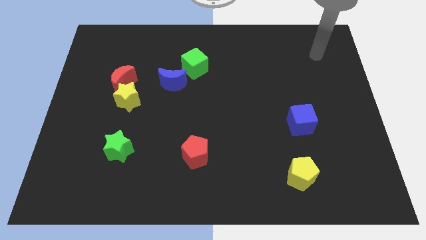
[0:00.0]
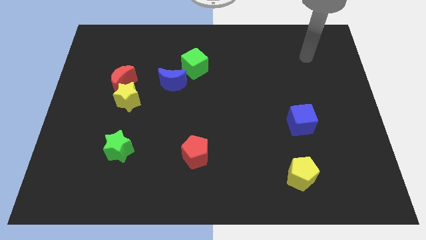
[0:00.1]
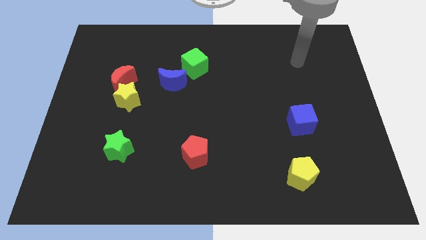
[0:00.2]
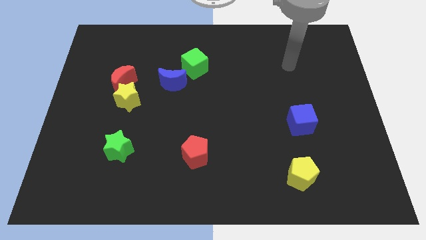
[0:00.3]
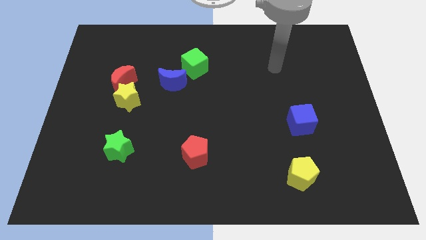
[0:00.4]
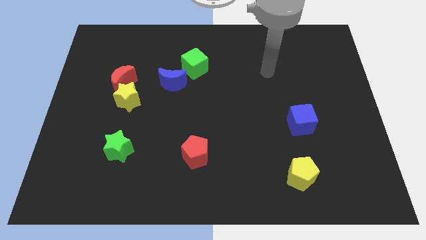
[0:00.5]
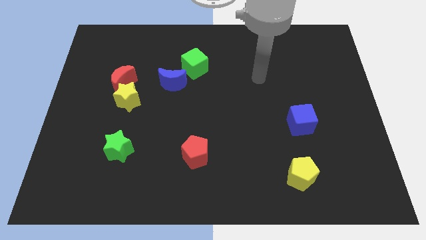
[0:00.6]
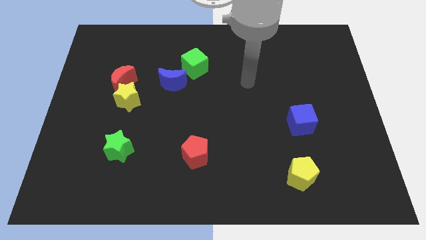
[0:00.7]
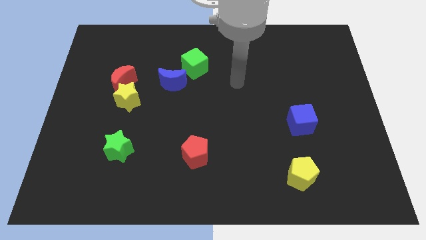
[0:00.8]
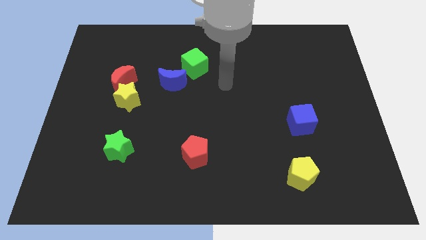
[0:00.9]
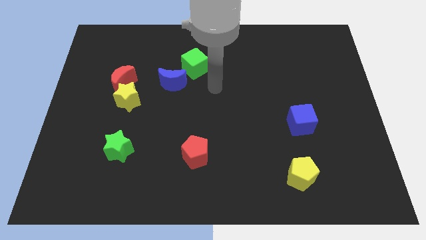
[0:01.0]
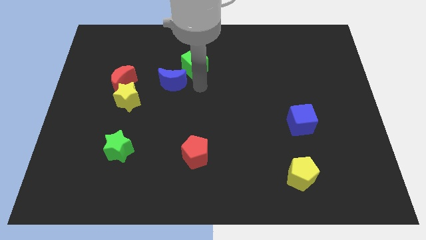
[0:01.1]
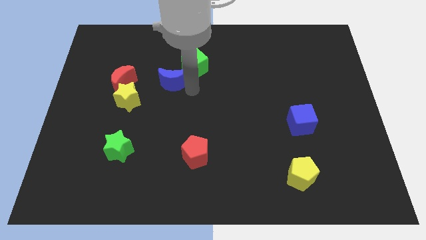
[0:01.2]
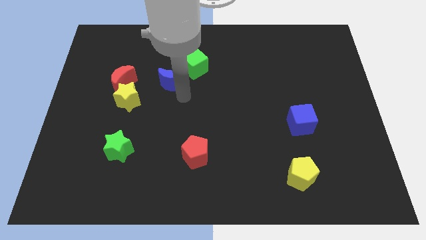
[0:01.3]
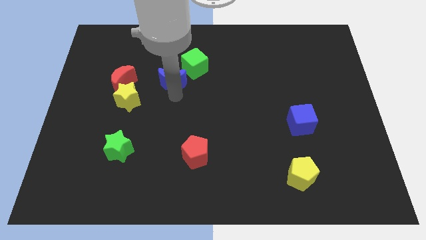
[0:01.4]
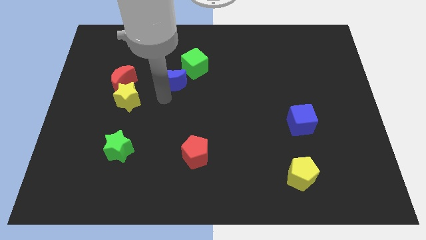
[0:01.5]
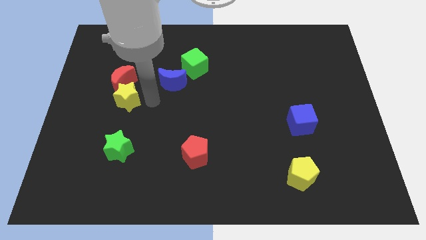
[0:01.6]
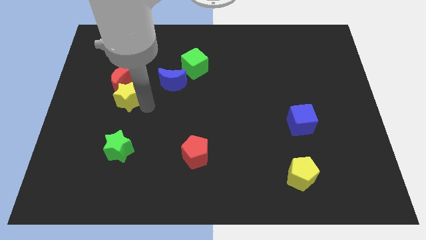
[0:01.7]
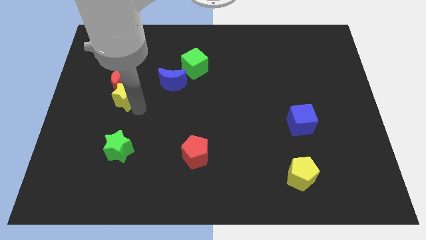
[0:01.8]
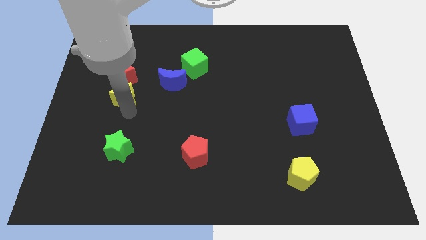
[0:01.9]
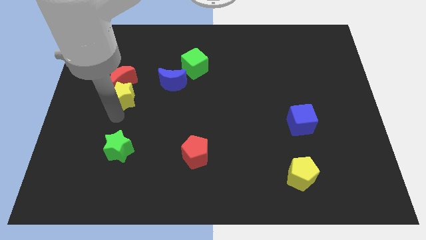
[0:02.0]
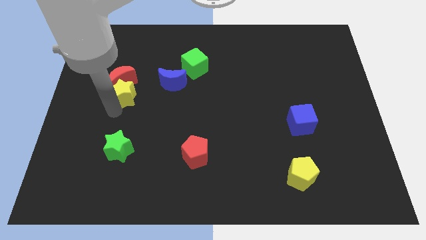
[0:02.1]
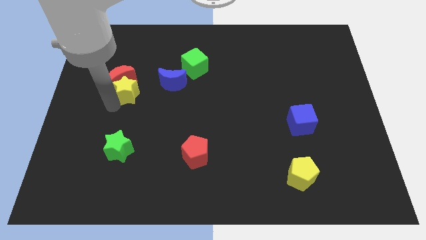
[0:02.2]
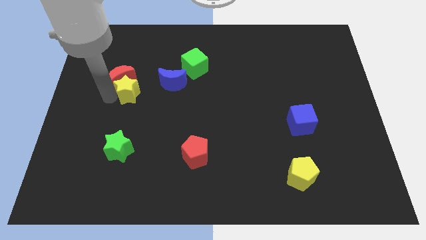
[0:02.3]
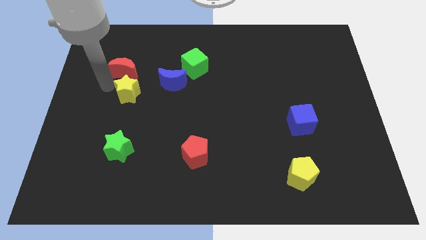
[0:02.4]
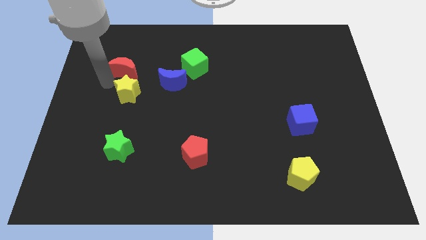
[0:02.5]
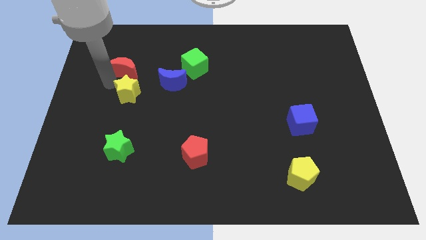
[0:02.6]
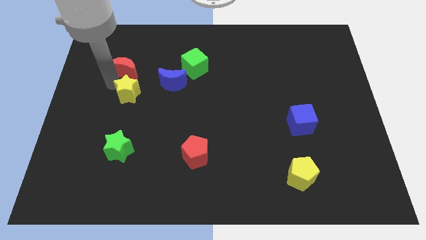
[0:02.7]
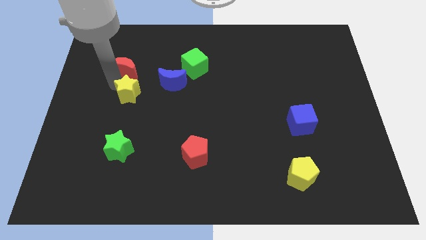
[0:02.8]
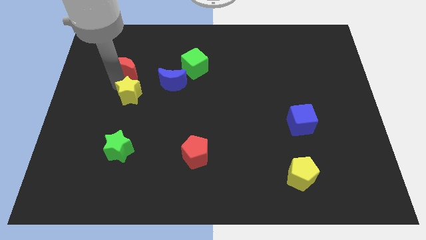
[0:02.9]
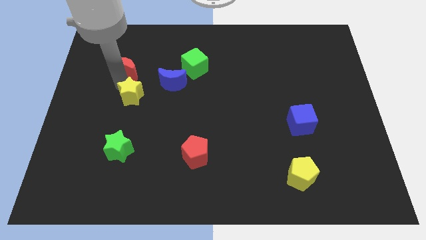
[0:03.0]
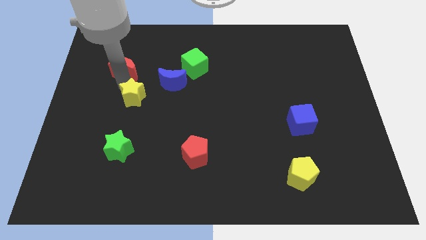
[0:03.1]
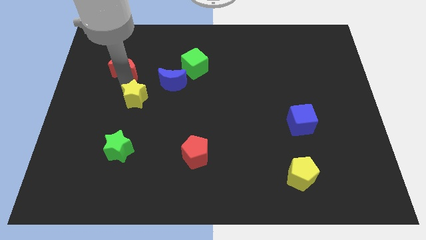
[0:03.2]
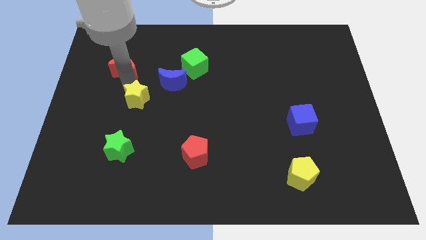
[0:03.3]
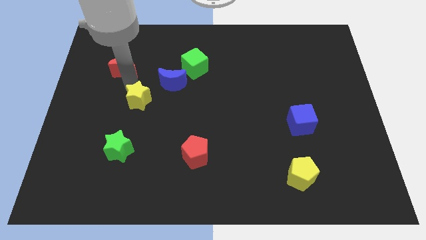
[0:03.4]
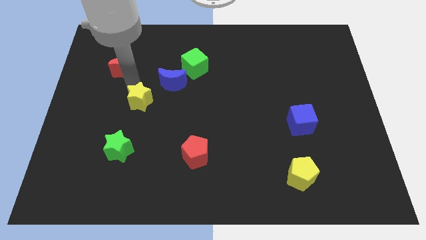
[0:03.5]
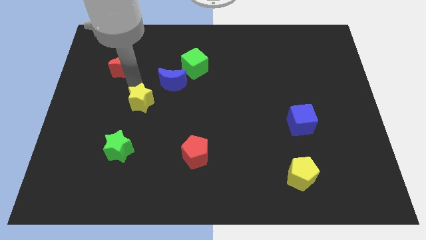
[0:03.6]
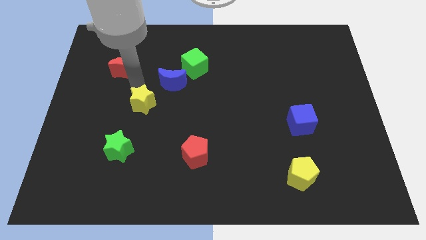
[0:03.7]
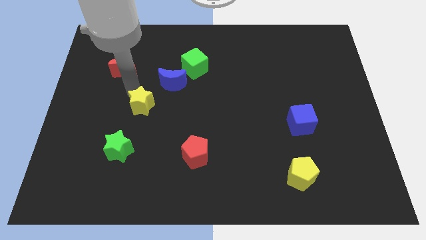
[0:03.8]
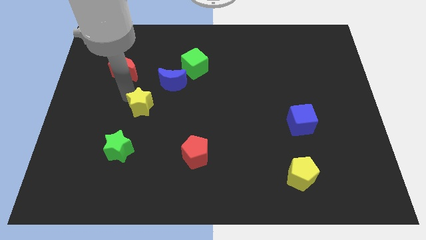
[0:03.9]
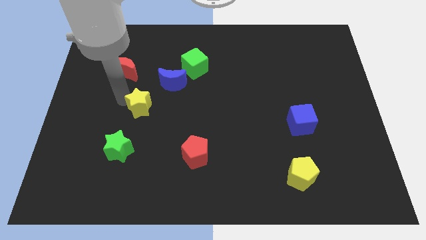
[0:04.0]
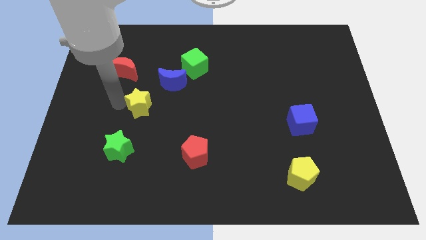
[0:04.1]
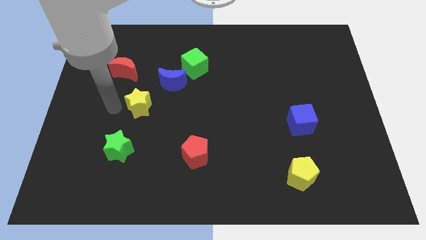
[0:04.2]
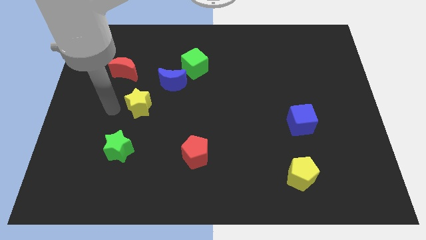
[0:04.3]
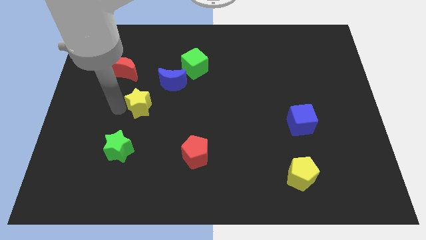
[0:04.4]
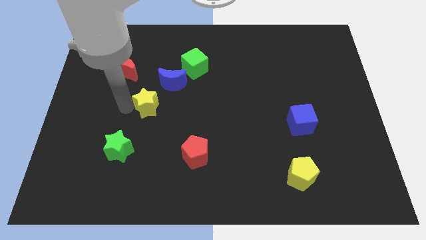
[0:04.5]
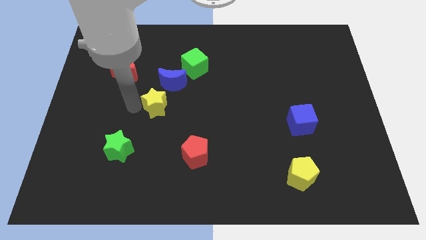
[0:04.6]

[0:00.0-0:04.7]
slightly push the yellow star to the right

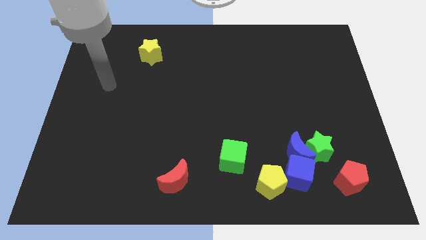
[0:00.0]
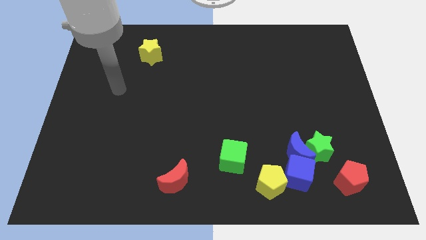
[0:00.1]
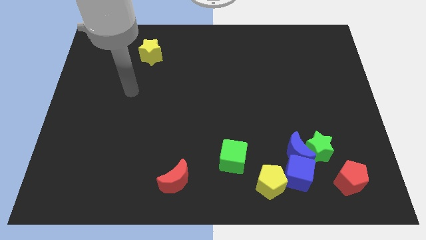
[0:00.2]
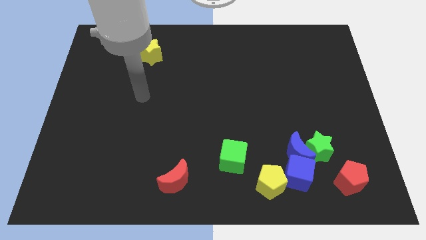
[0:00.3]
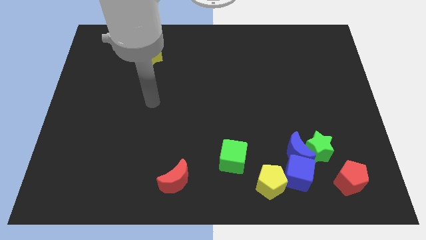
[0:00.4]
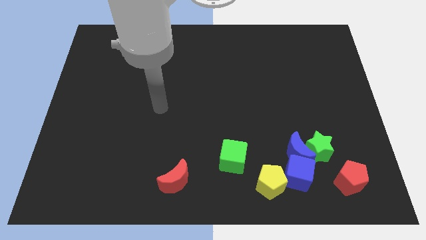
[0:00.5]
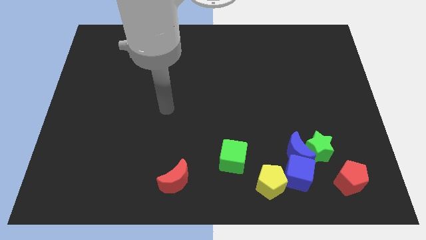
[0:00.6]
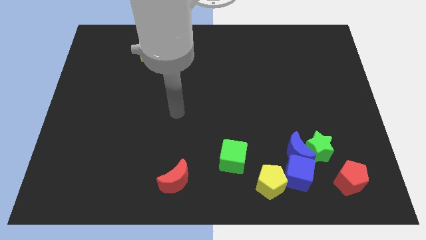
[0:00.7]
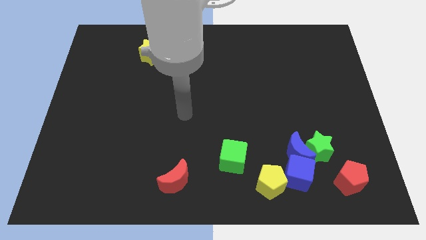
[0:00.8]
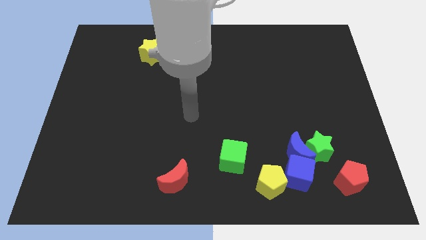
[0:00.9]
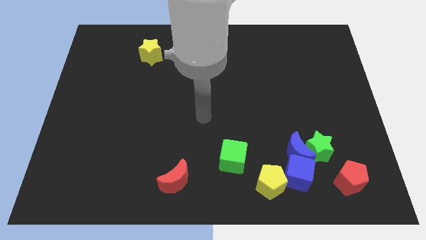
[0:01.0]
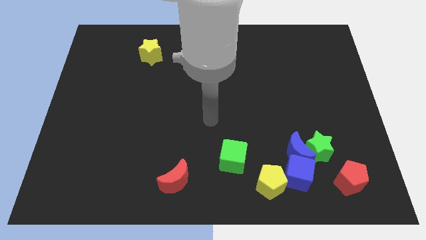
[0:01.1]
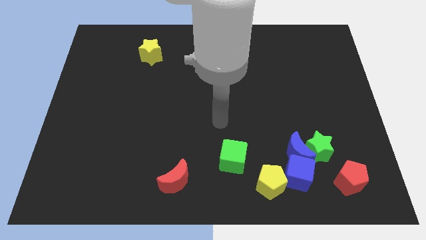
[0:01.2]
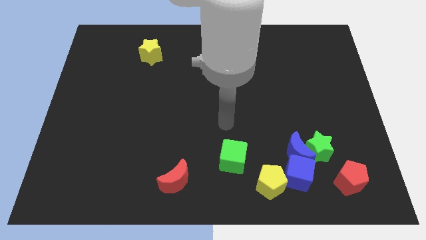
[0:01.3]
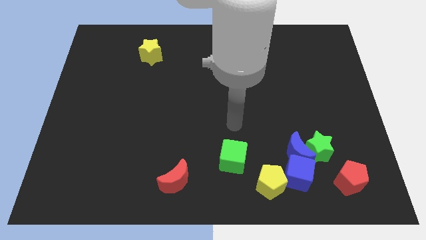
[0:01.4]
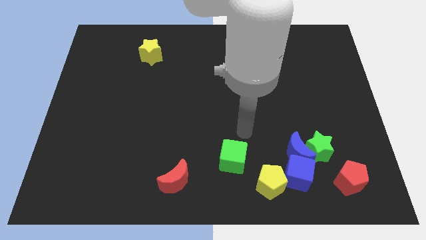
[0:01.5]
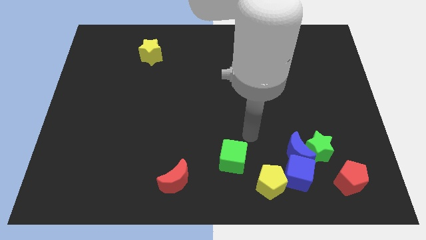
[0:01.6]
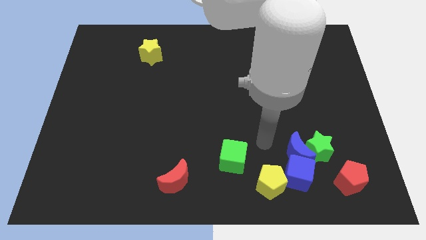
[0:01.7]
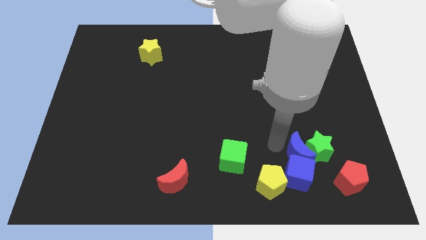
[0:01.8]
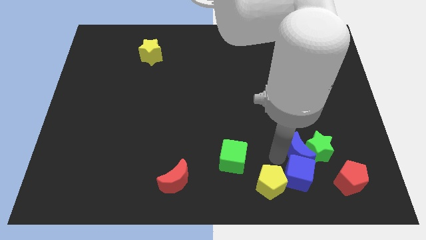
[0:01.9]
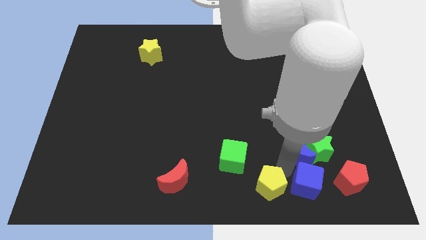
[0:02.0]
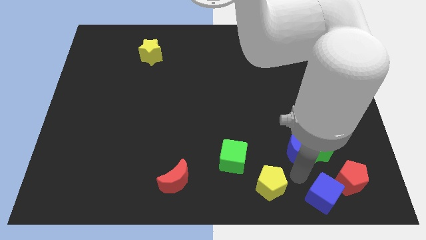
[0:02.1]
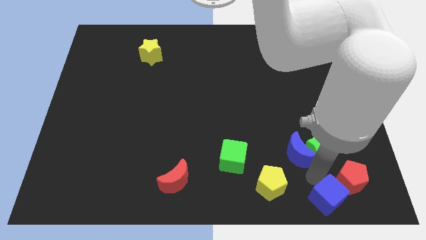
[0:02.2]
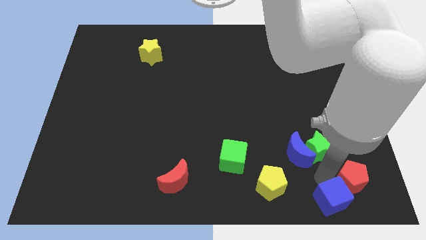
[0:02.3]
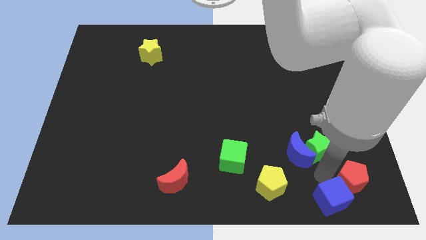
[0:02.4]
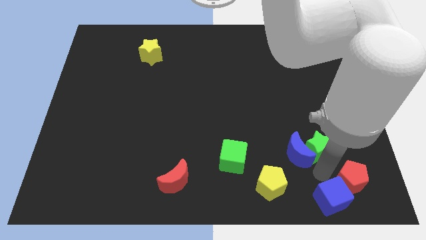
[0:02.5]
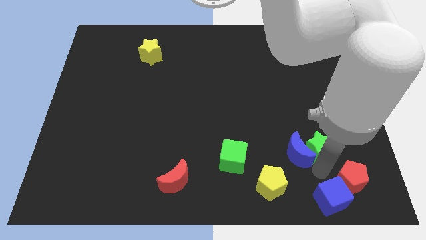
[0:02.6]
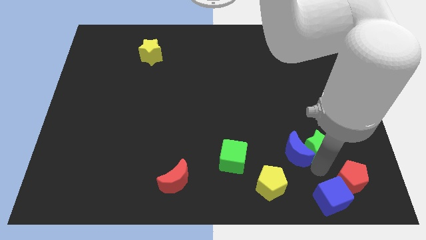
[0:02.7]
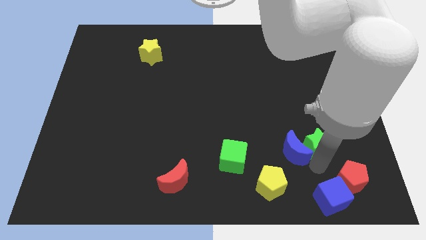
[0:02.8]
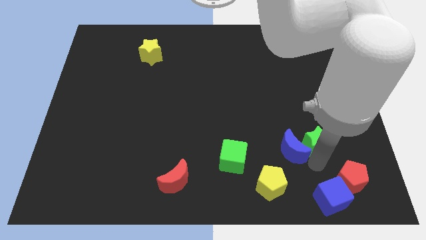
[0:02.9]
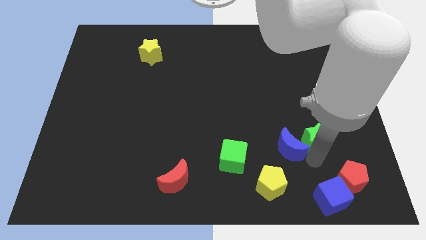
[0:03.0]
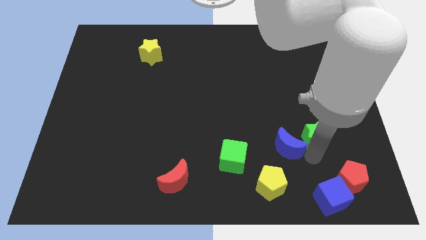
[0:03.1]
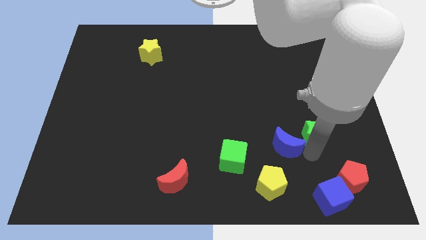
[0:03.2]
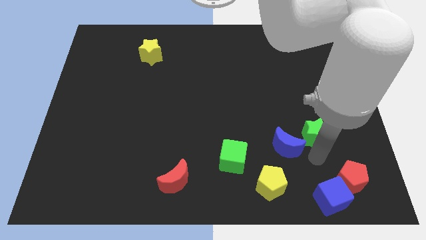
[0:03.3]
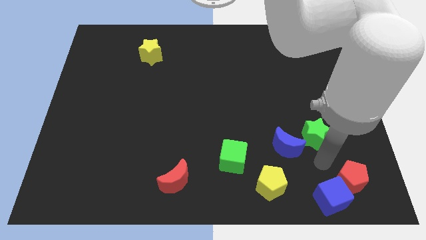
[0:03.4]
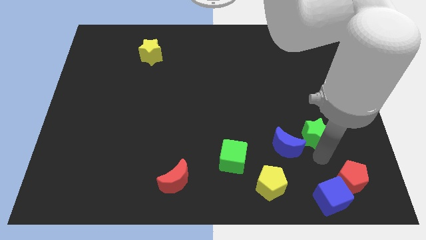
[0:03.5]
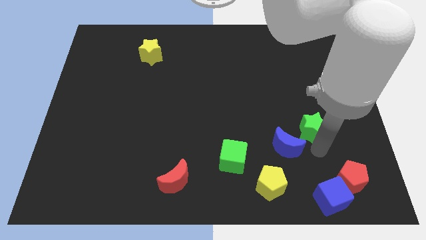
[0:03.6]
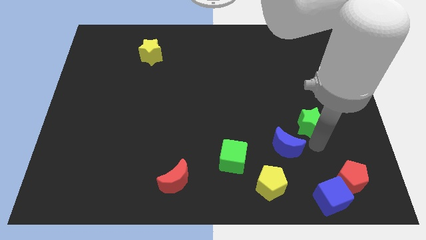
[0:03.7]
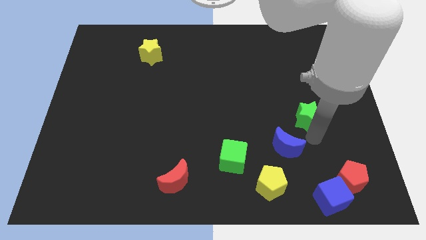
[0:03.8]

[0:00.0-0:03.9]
move the green star up somewhat

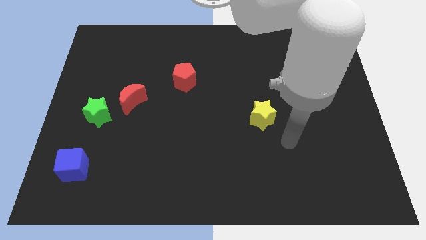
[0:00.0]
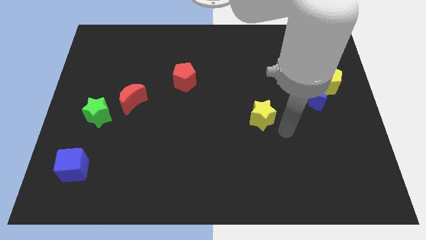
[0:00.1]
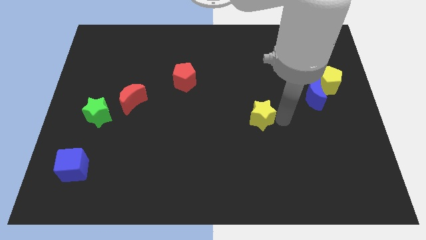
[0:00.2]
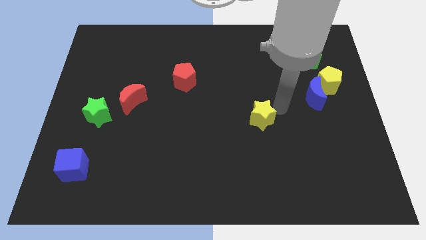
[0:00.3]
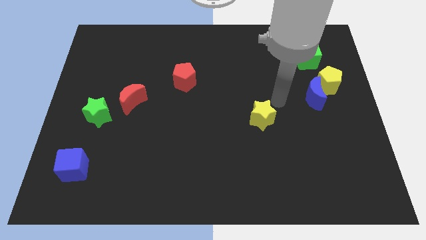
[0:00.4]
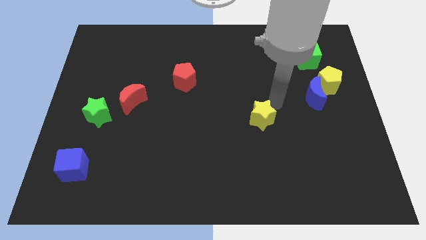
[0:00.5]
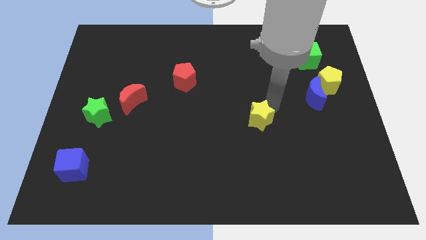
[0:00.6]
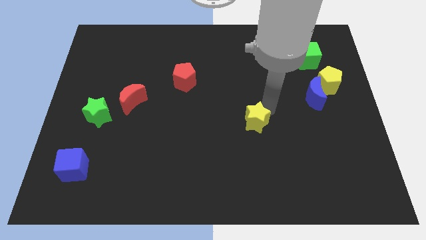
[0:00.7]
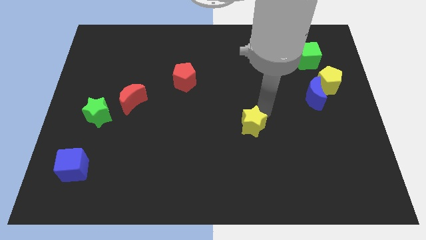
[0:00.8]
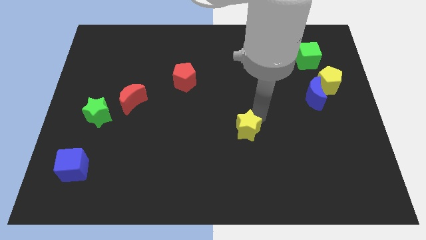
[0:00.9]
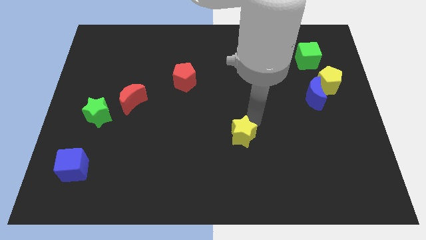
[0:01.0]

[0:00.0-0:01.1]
slightly push the yellow star diagonally downwards and left
